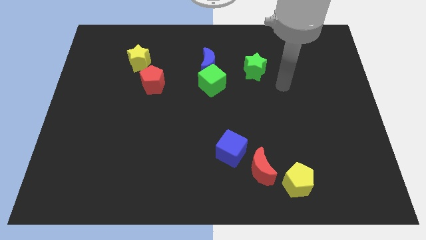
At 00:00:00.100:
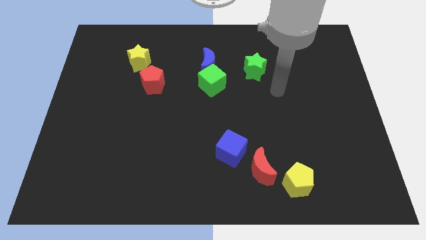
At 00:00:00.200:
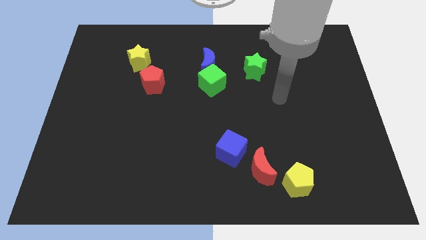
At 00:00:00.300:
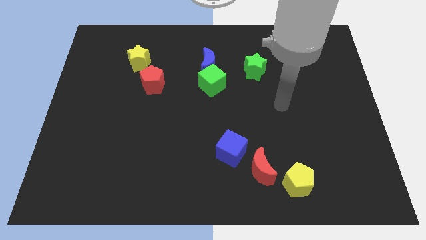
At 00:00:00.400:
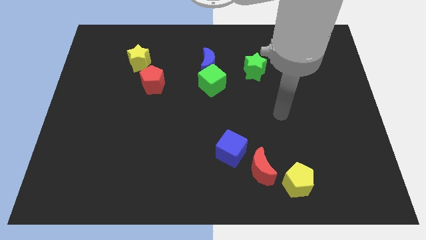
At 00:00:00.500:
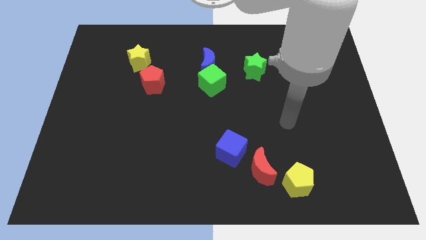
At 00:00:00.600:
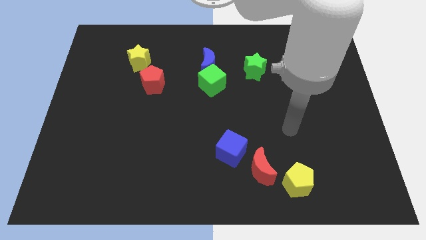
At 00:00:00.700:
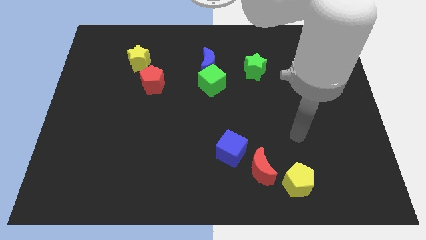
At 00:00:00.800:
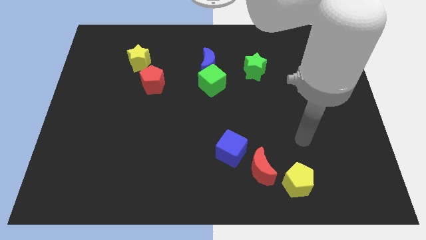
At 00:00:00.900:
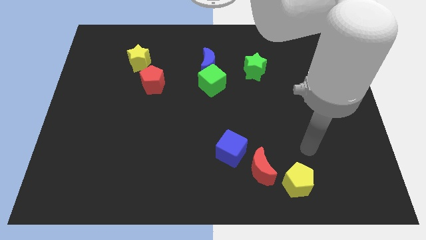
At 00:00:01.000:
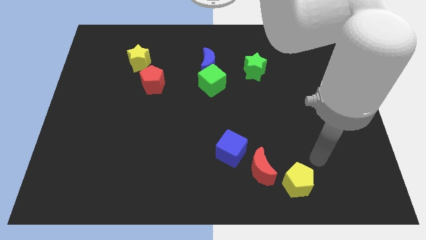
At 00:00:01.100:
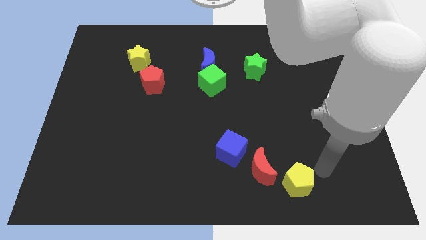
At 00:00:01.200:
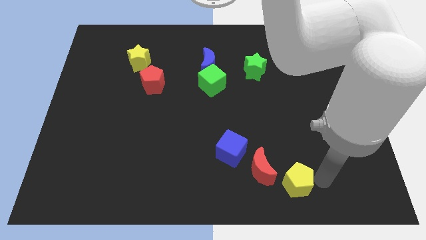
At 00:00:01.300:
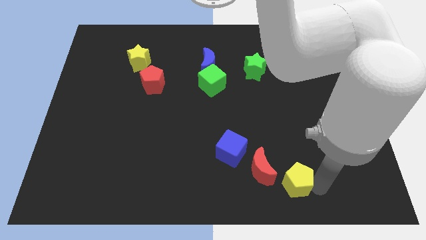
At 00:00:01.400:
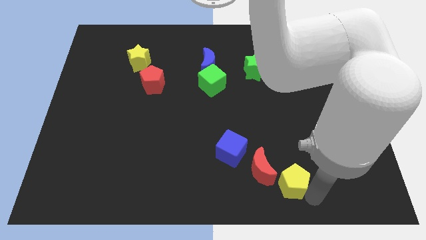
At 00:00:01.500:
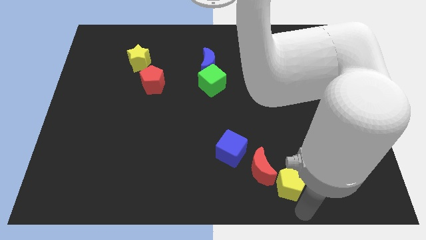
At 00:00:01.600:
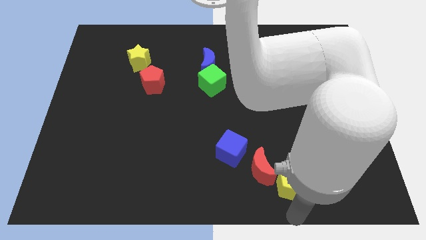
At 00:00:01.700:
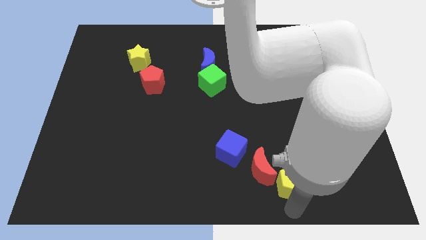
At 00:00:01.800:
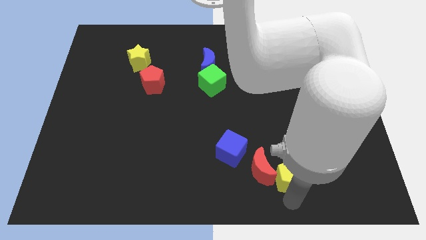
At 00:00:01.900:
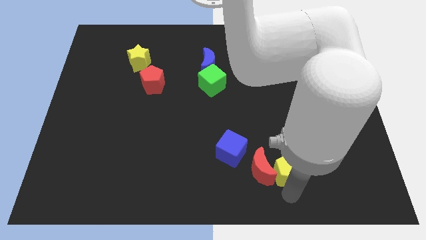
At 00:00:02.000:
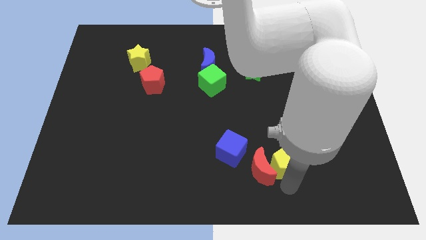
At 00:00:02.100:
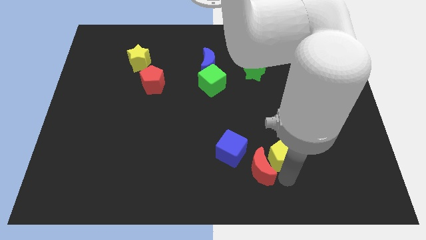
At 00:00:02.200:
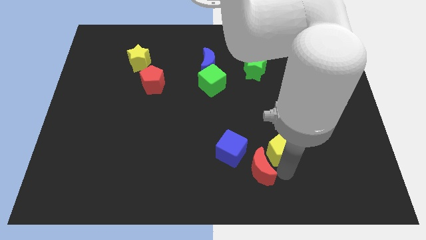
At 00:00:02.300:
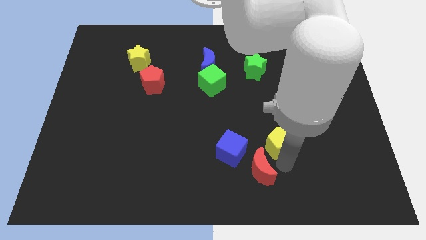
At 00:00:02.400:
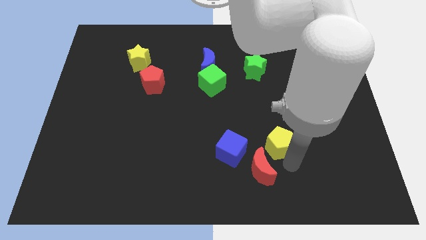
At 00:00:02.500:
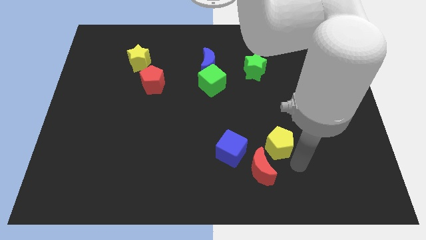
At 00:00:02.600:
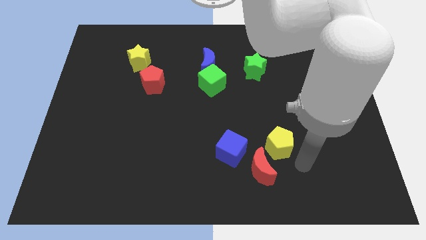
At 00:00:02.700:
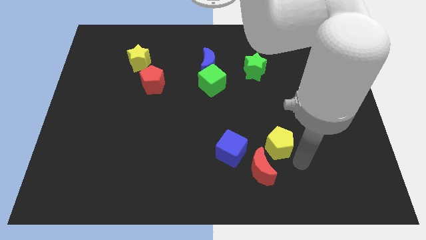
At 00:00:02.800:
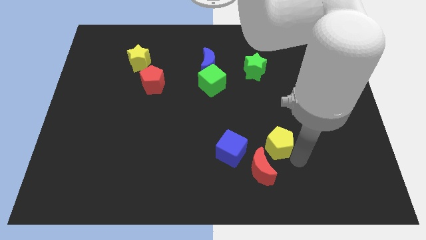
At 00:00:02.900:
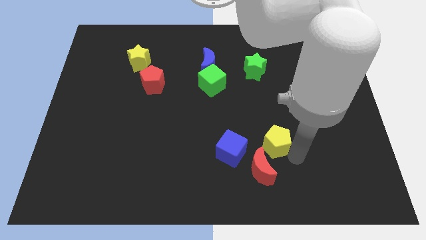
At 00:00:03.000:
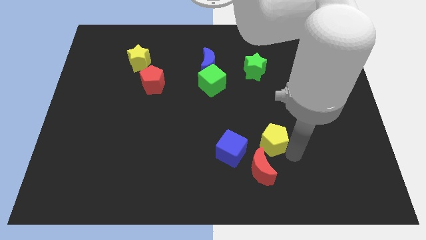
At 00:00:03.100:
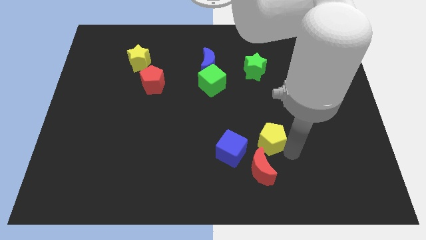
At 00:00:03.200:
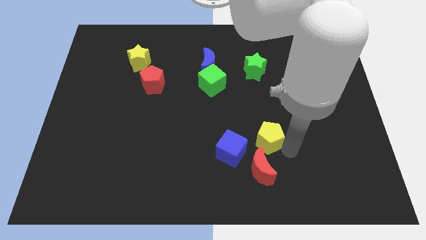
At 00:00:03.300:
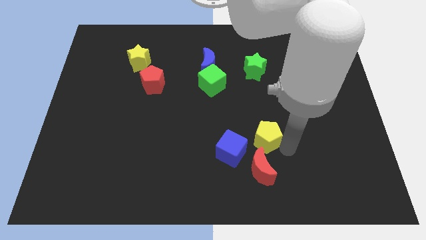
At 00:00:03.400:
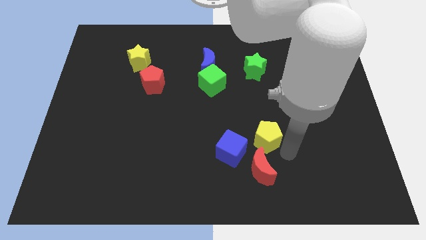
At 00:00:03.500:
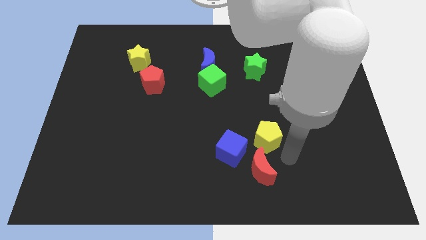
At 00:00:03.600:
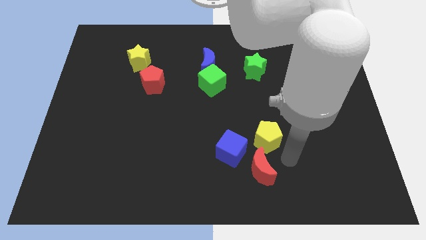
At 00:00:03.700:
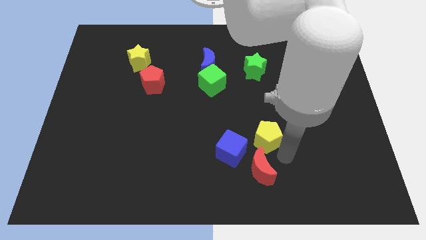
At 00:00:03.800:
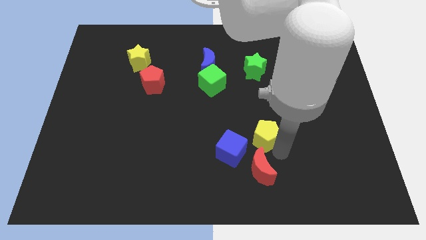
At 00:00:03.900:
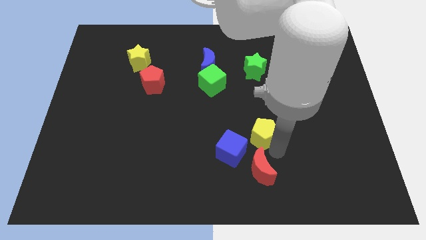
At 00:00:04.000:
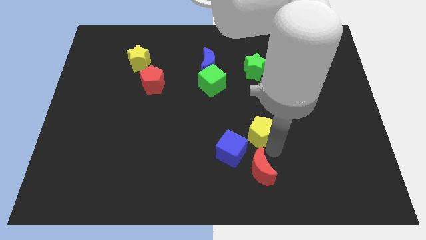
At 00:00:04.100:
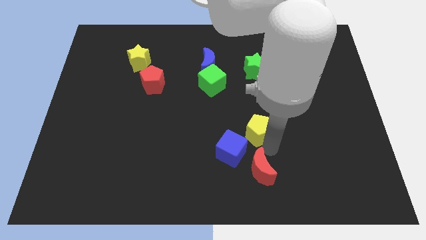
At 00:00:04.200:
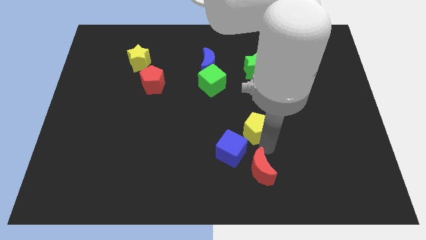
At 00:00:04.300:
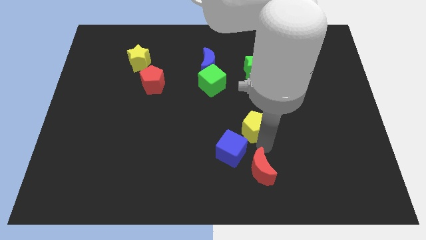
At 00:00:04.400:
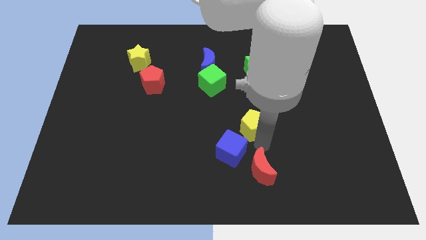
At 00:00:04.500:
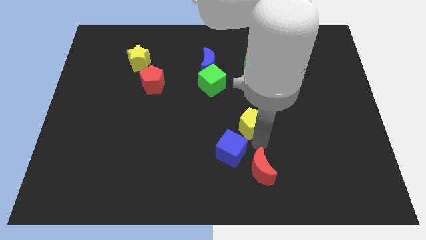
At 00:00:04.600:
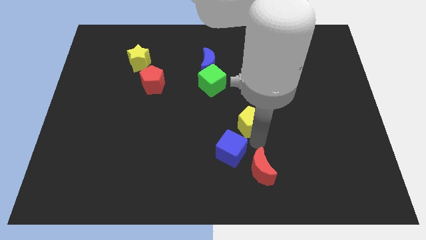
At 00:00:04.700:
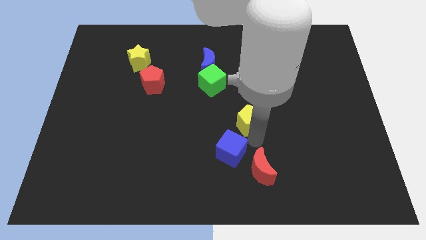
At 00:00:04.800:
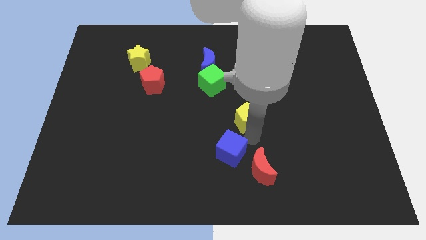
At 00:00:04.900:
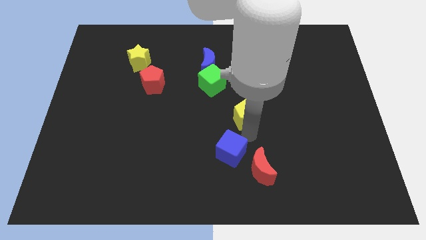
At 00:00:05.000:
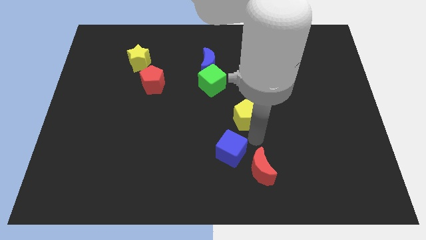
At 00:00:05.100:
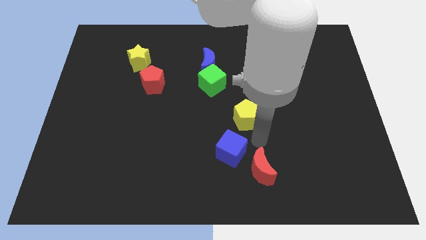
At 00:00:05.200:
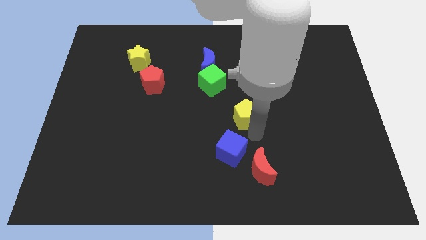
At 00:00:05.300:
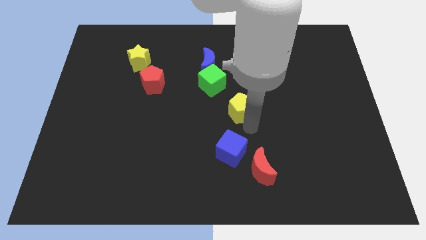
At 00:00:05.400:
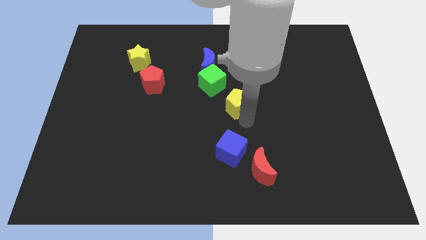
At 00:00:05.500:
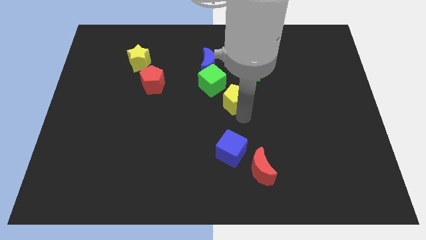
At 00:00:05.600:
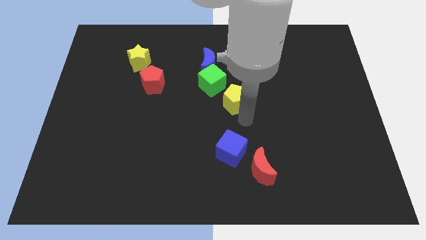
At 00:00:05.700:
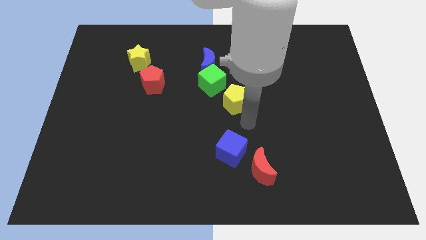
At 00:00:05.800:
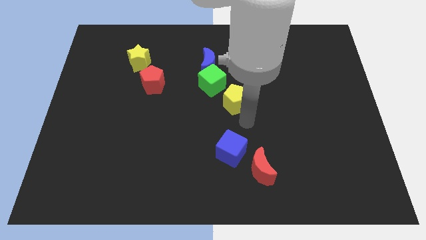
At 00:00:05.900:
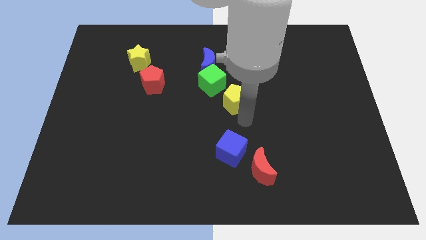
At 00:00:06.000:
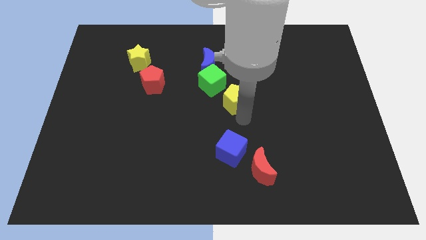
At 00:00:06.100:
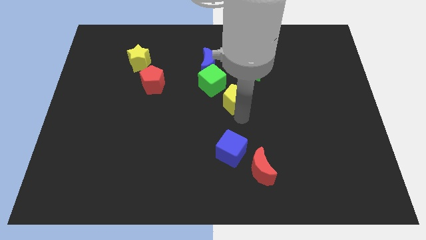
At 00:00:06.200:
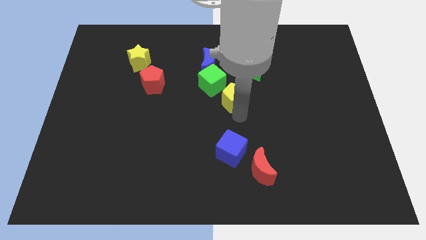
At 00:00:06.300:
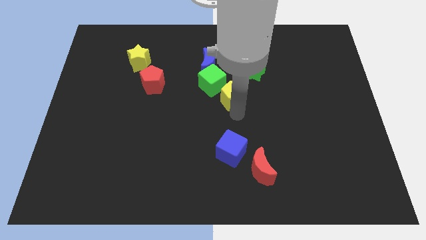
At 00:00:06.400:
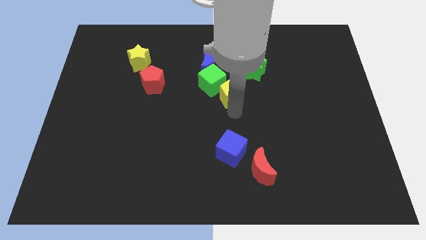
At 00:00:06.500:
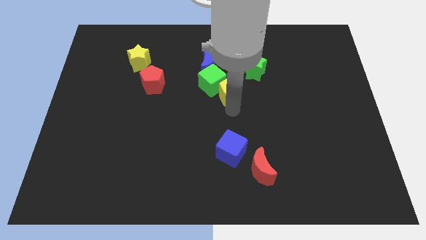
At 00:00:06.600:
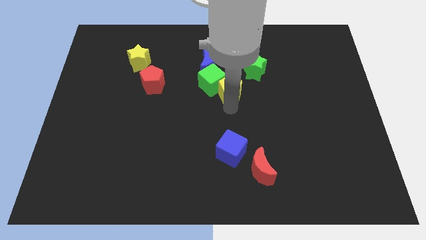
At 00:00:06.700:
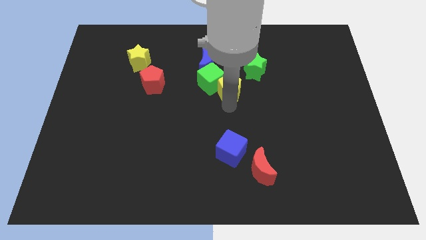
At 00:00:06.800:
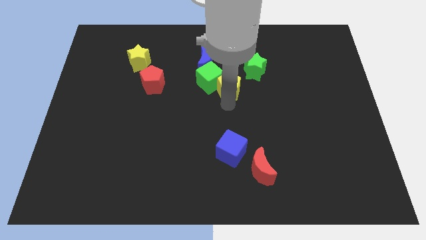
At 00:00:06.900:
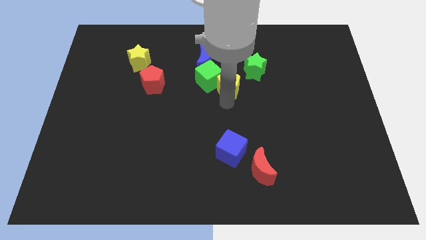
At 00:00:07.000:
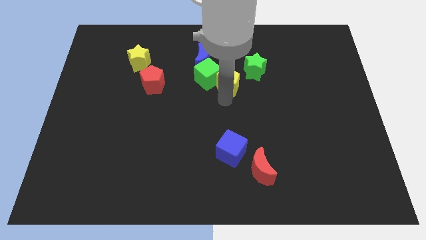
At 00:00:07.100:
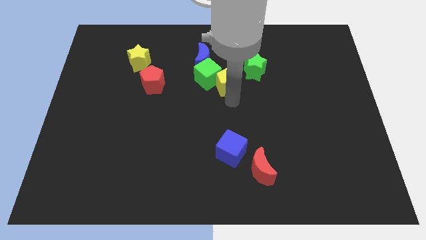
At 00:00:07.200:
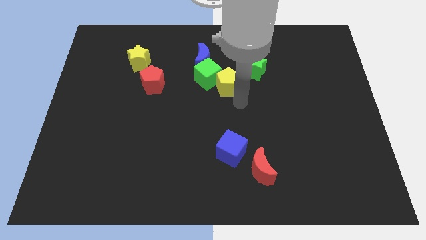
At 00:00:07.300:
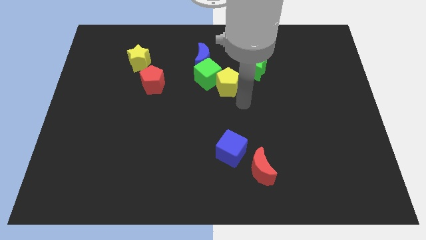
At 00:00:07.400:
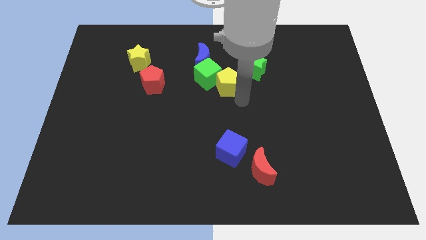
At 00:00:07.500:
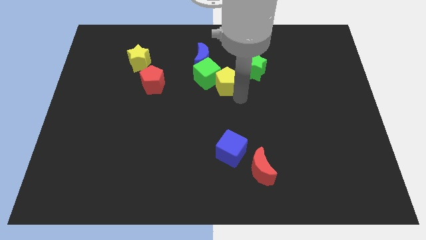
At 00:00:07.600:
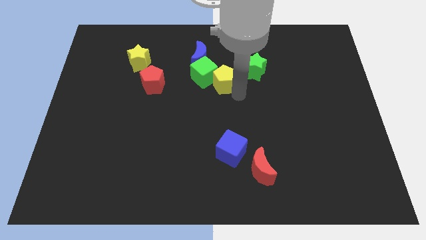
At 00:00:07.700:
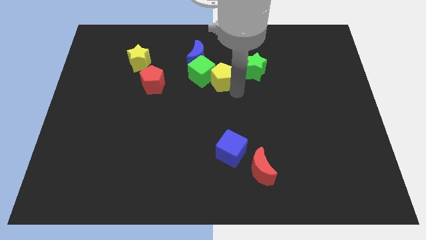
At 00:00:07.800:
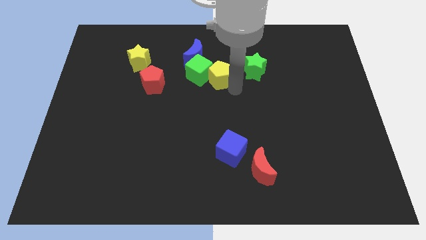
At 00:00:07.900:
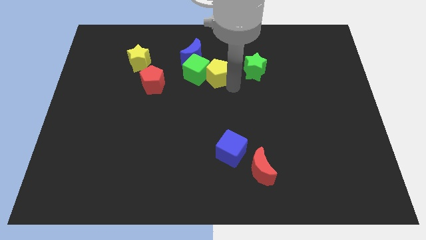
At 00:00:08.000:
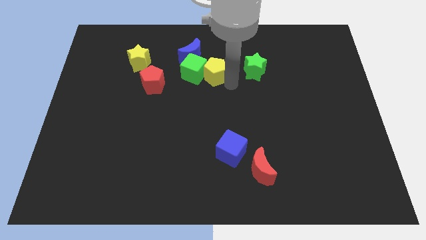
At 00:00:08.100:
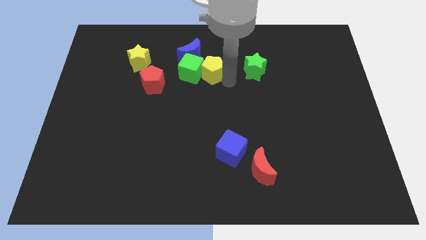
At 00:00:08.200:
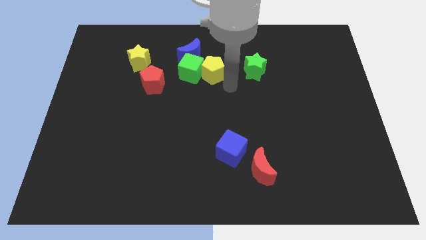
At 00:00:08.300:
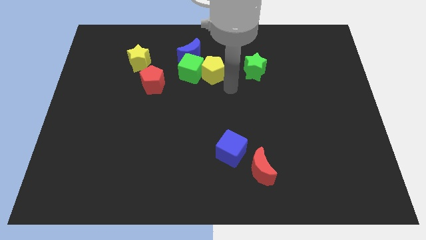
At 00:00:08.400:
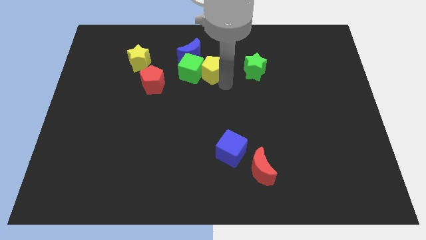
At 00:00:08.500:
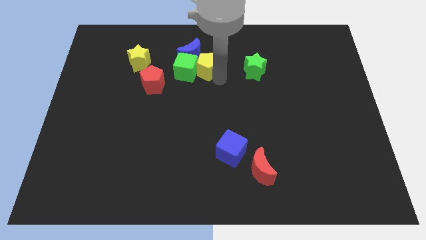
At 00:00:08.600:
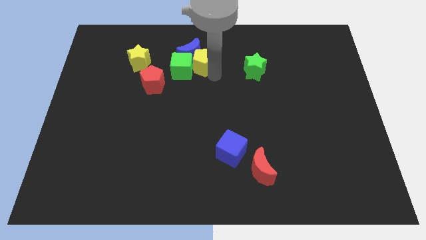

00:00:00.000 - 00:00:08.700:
push the yellow pentagon to the blue moon
